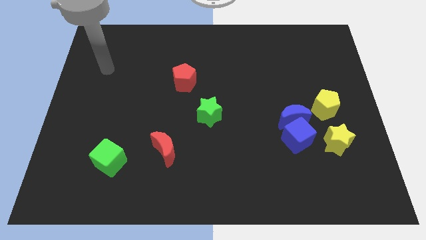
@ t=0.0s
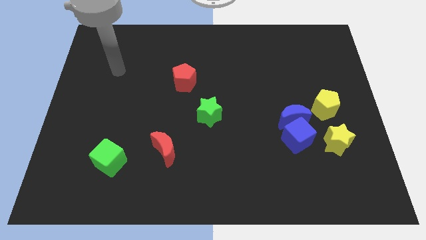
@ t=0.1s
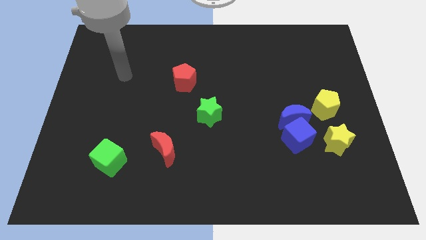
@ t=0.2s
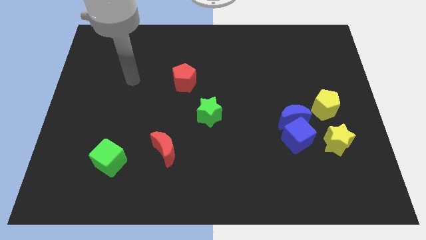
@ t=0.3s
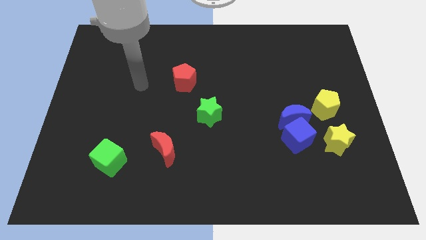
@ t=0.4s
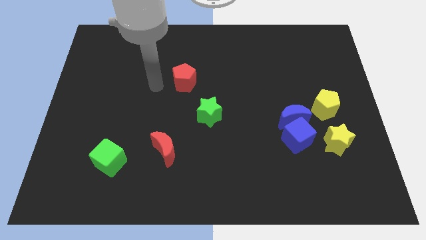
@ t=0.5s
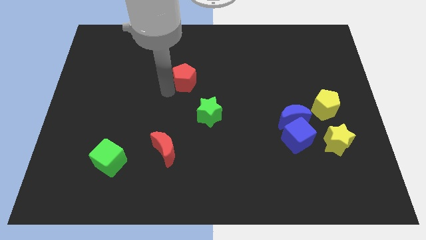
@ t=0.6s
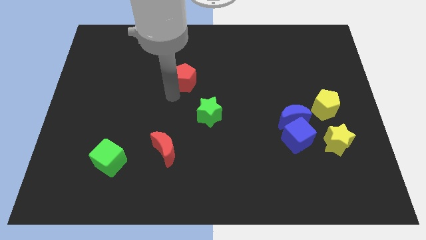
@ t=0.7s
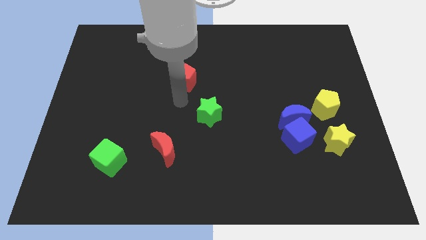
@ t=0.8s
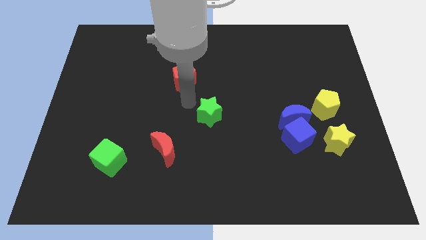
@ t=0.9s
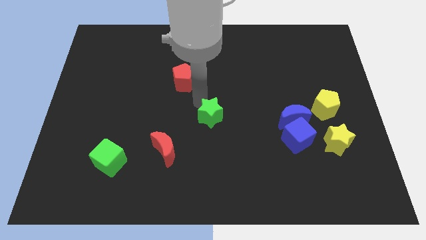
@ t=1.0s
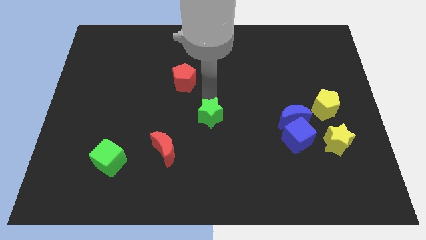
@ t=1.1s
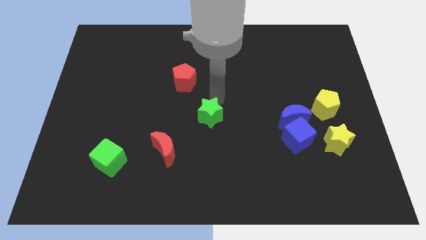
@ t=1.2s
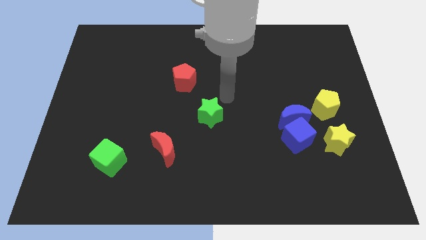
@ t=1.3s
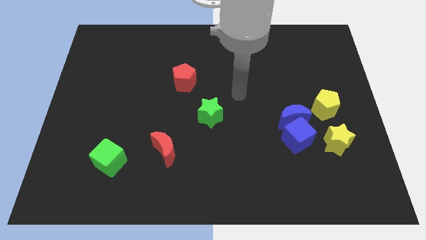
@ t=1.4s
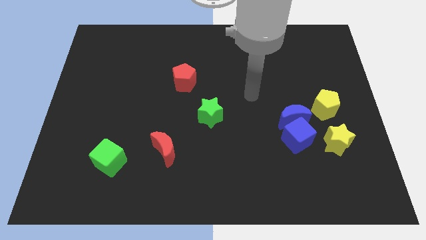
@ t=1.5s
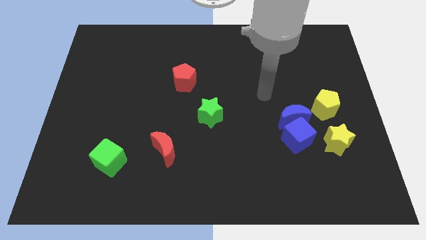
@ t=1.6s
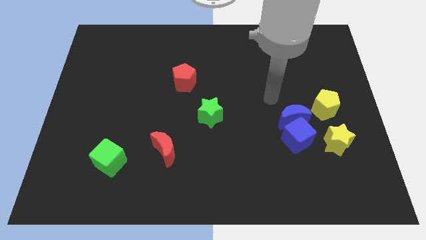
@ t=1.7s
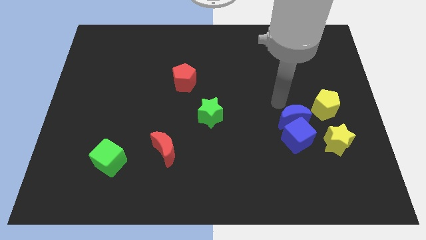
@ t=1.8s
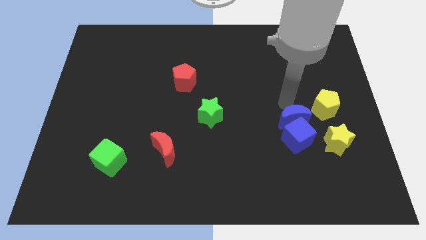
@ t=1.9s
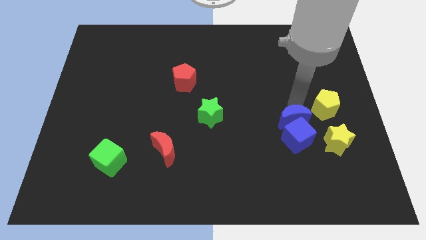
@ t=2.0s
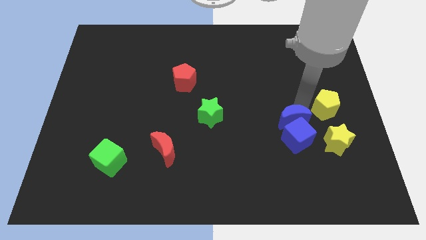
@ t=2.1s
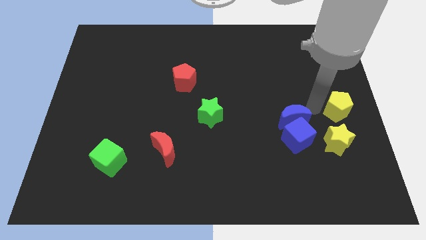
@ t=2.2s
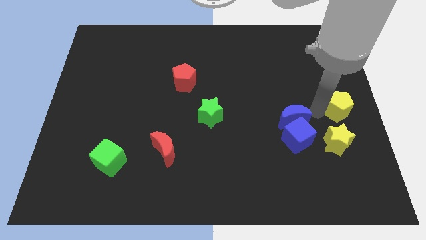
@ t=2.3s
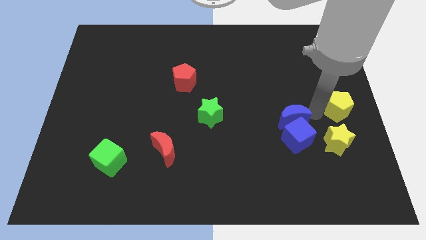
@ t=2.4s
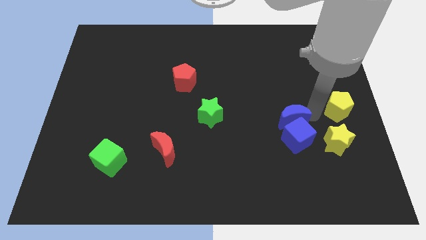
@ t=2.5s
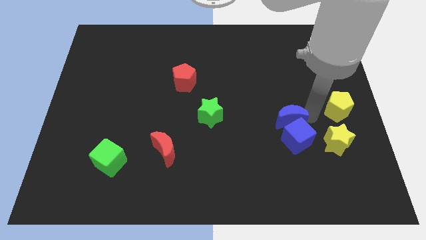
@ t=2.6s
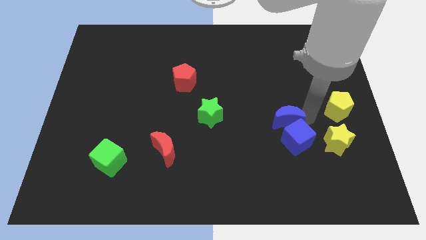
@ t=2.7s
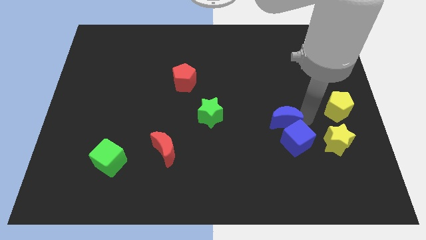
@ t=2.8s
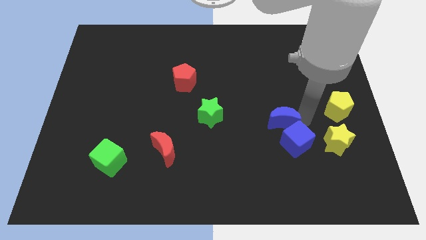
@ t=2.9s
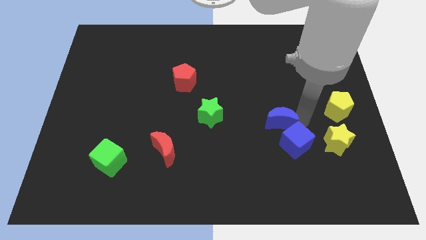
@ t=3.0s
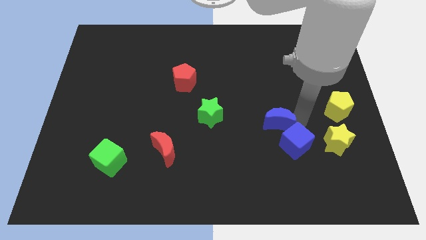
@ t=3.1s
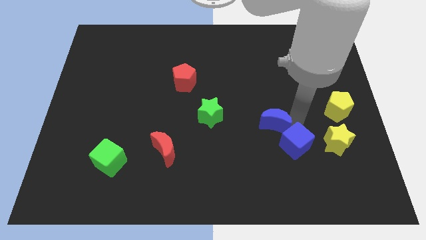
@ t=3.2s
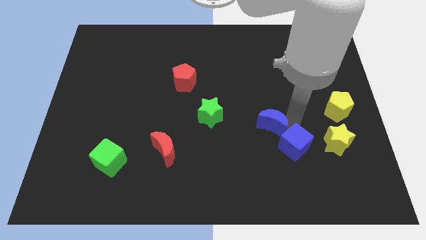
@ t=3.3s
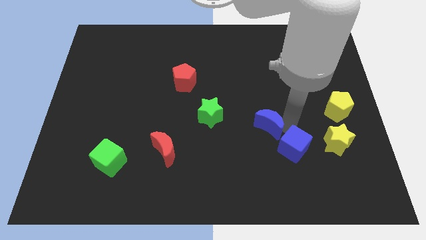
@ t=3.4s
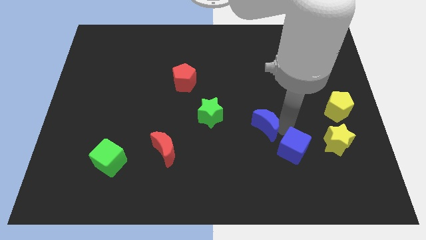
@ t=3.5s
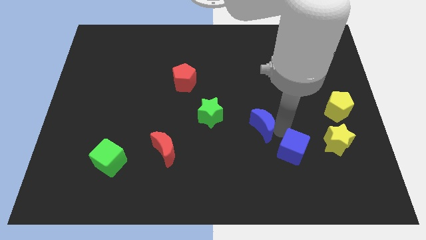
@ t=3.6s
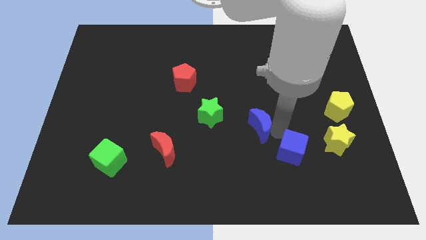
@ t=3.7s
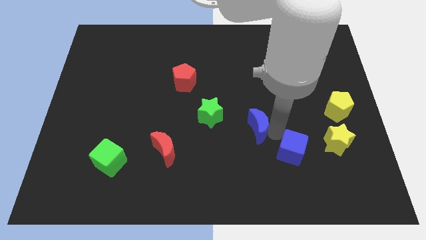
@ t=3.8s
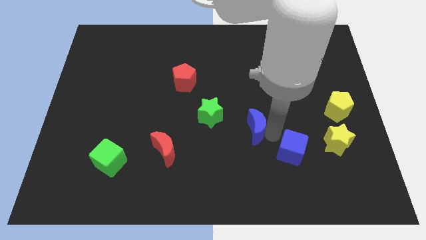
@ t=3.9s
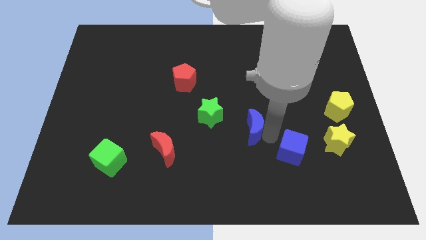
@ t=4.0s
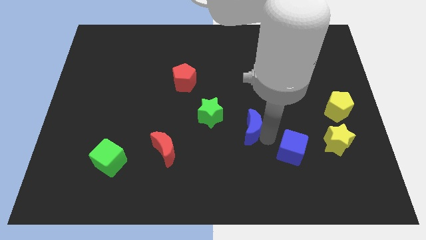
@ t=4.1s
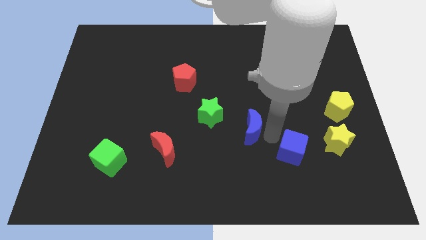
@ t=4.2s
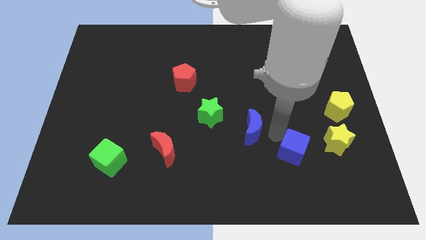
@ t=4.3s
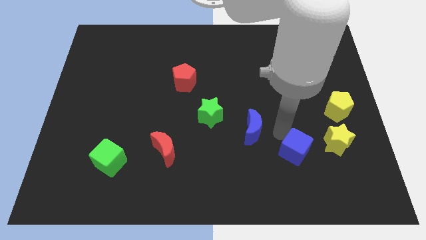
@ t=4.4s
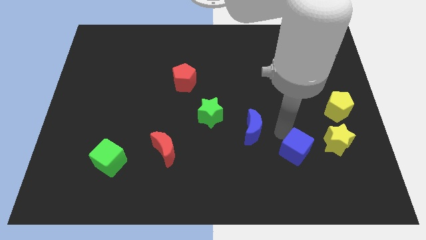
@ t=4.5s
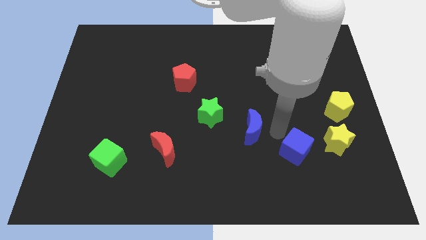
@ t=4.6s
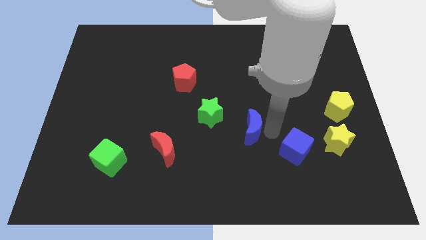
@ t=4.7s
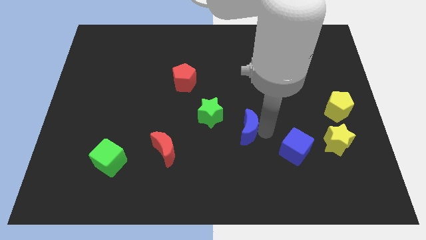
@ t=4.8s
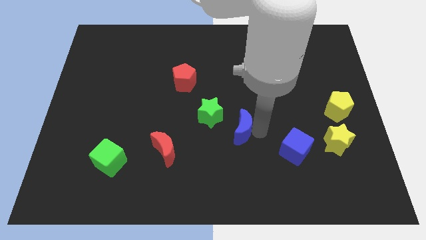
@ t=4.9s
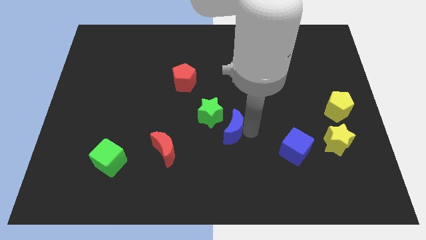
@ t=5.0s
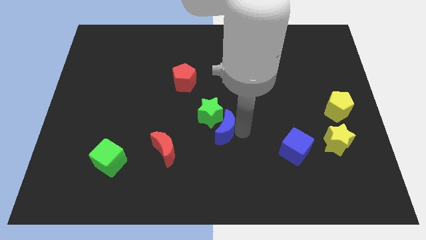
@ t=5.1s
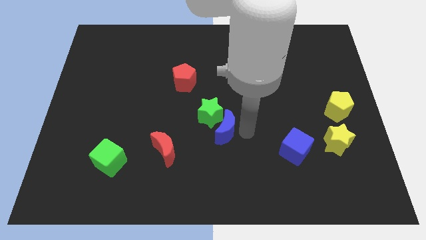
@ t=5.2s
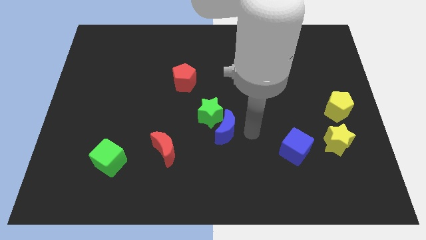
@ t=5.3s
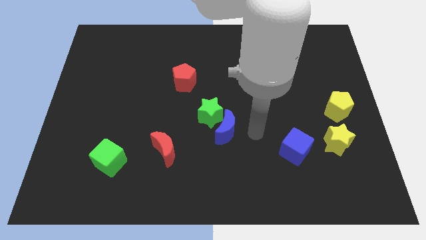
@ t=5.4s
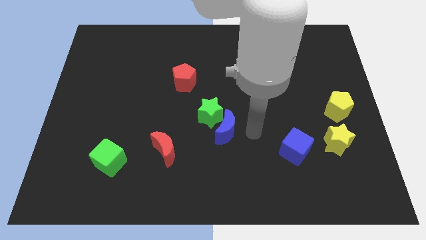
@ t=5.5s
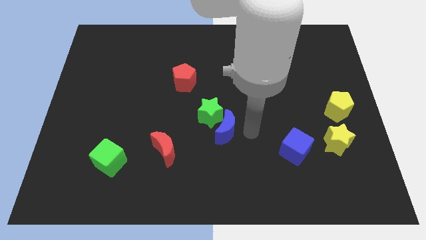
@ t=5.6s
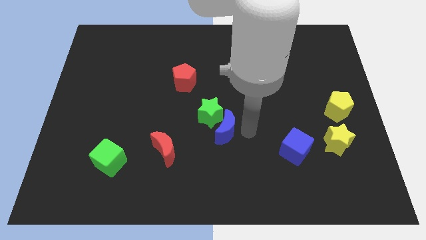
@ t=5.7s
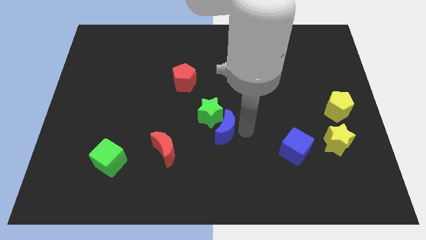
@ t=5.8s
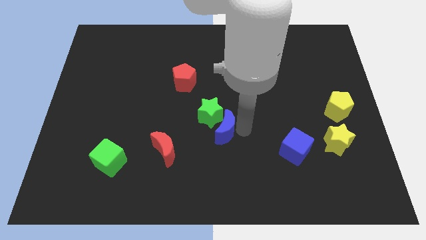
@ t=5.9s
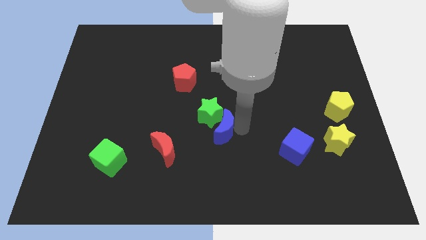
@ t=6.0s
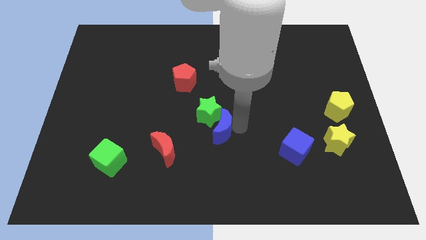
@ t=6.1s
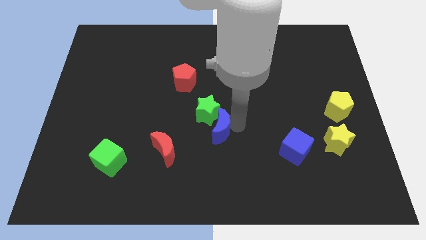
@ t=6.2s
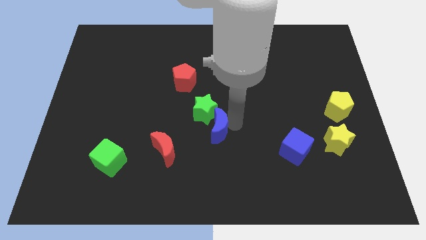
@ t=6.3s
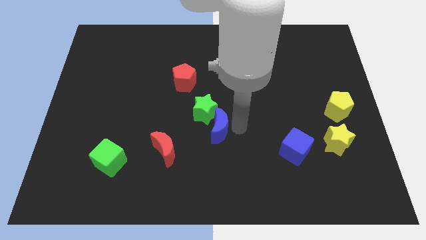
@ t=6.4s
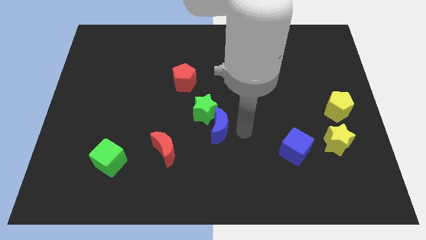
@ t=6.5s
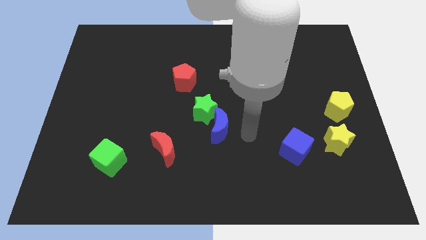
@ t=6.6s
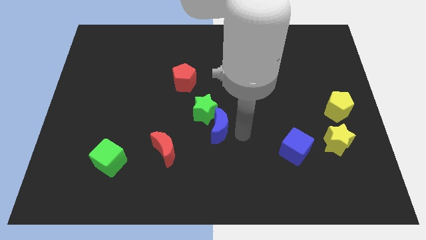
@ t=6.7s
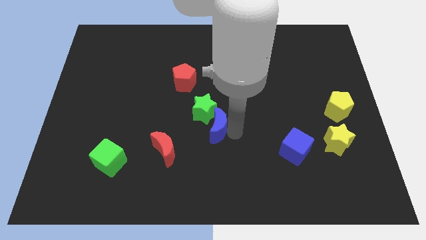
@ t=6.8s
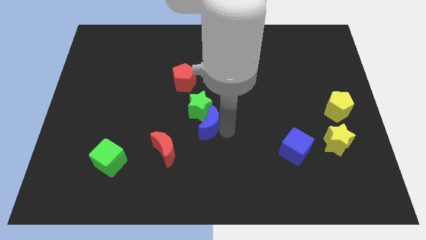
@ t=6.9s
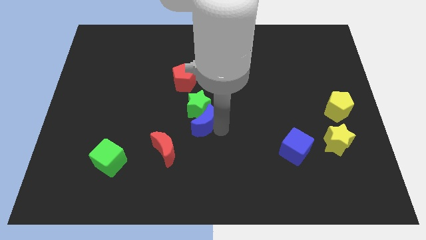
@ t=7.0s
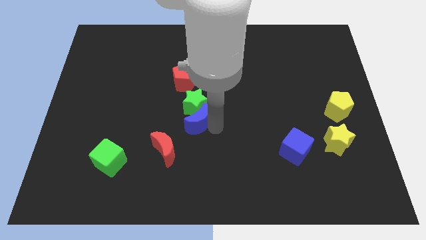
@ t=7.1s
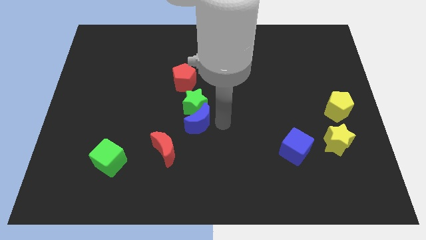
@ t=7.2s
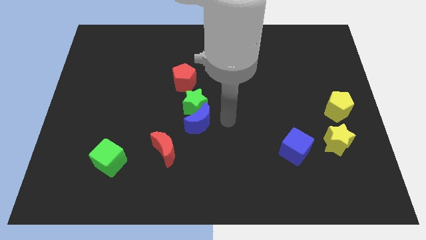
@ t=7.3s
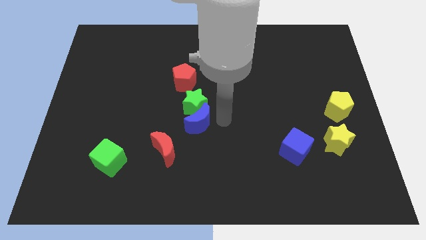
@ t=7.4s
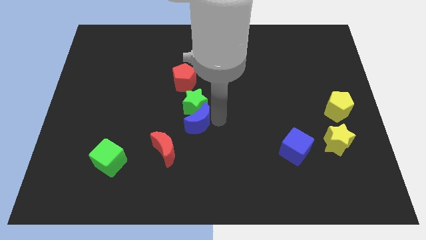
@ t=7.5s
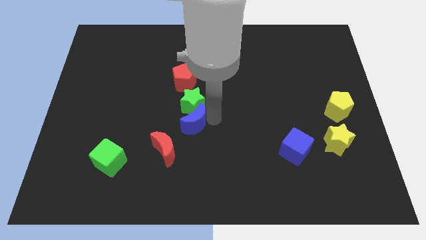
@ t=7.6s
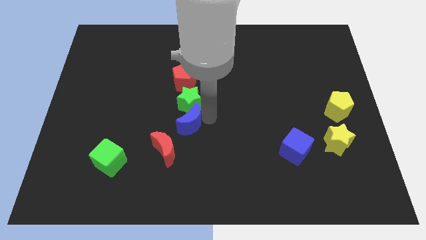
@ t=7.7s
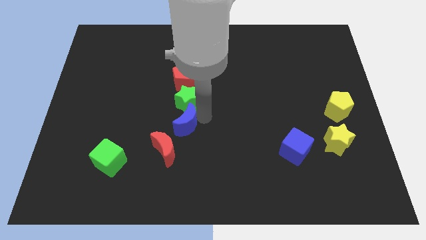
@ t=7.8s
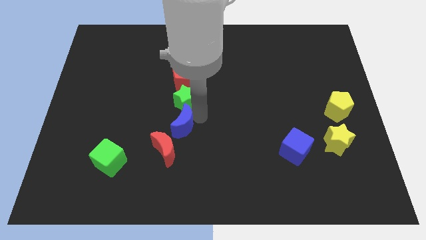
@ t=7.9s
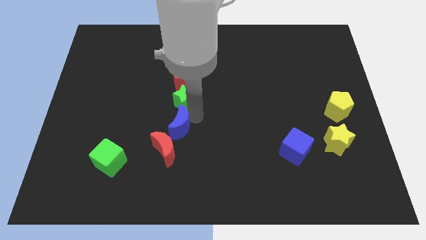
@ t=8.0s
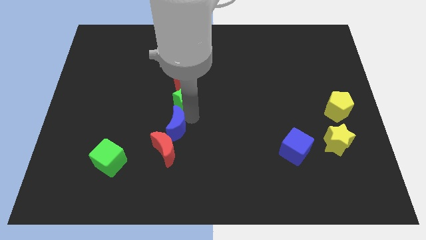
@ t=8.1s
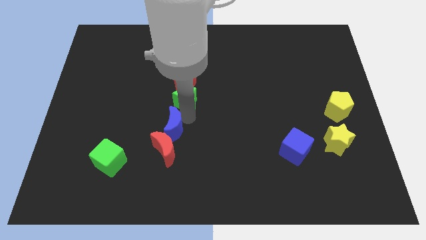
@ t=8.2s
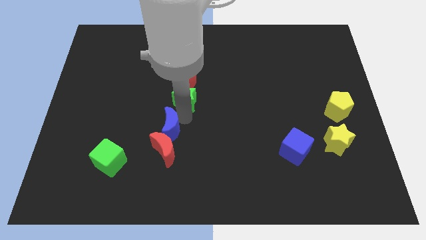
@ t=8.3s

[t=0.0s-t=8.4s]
put the blue moon to the top left side of the red moon

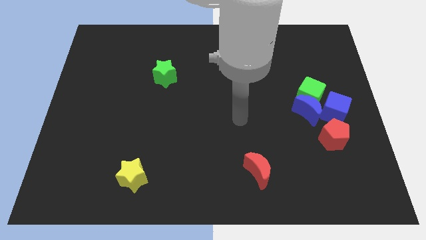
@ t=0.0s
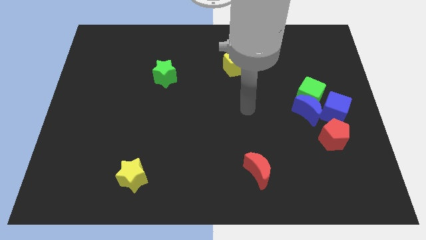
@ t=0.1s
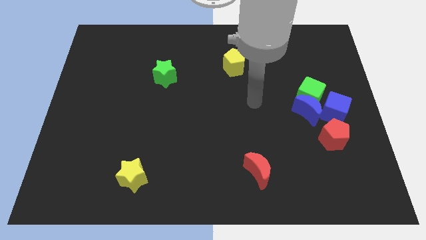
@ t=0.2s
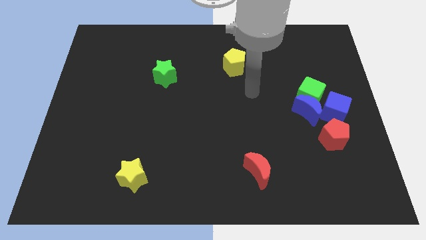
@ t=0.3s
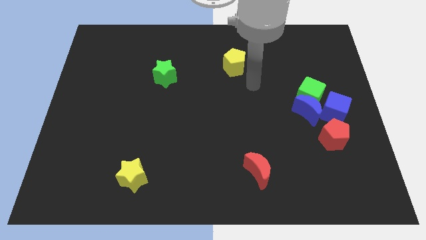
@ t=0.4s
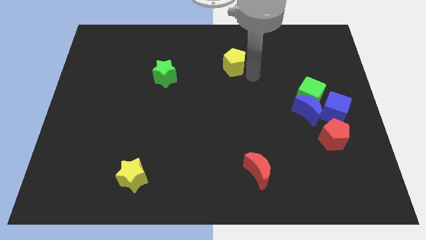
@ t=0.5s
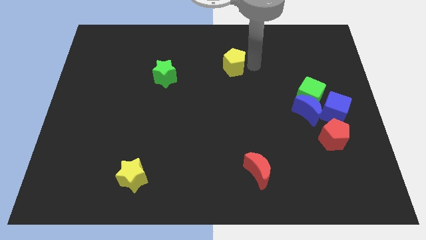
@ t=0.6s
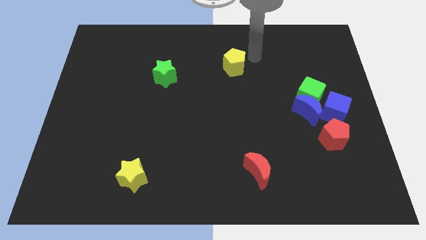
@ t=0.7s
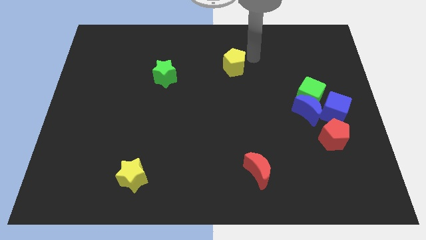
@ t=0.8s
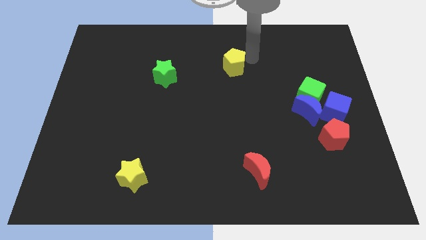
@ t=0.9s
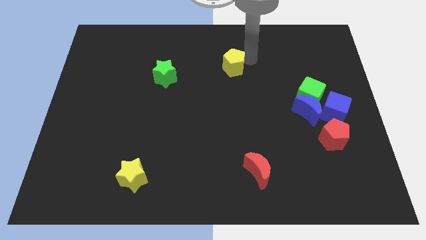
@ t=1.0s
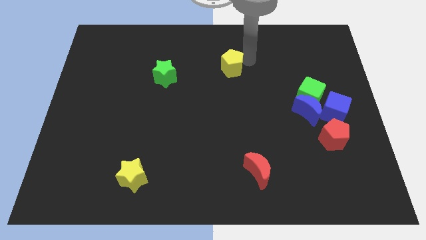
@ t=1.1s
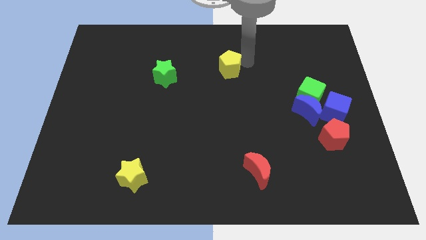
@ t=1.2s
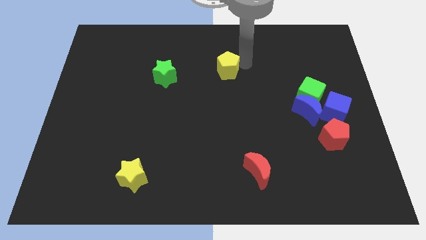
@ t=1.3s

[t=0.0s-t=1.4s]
move the yellow pentagon just right of the green star
